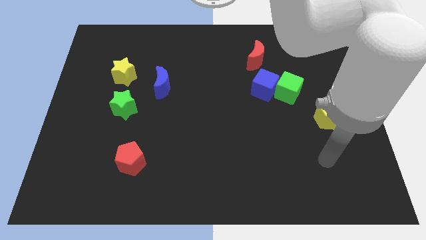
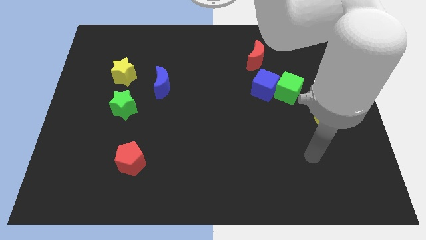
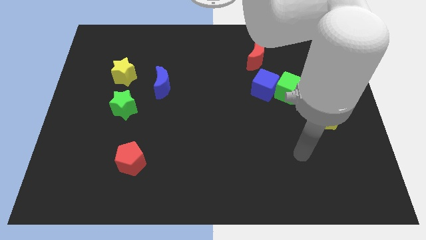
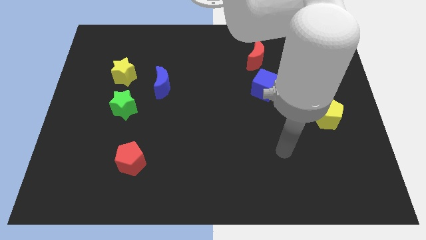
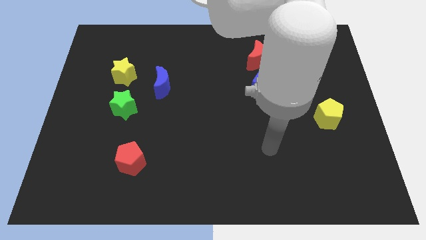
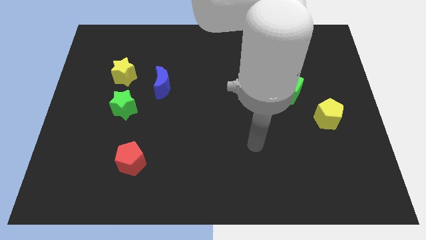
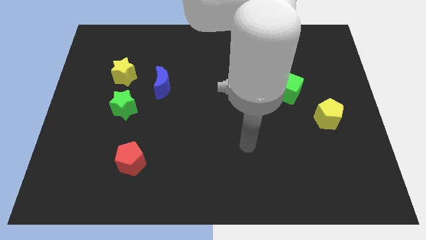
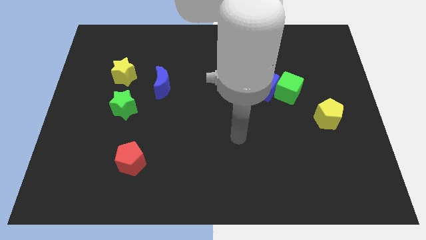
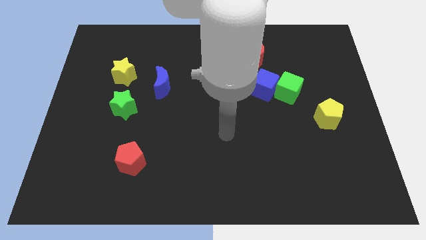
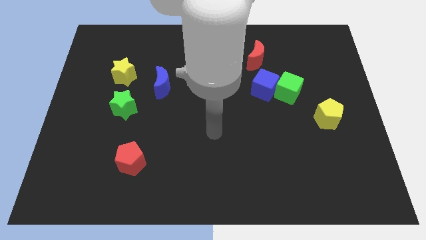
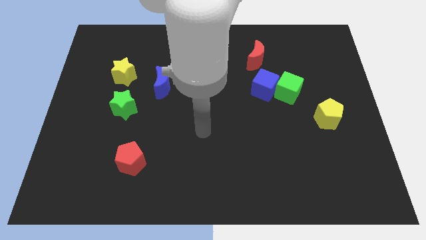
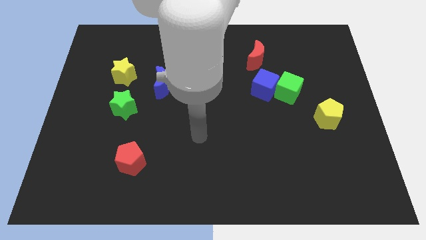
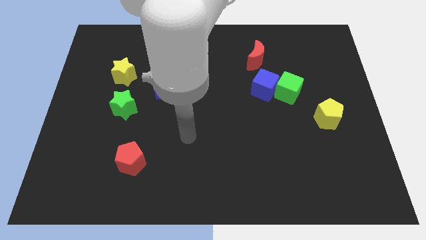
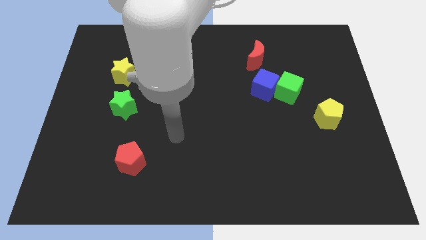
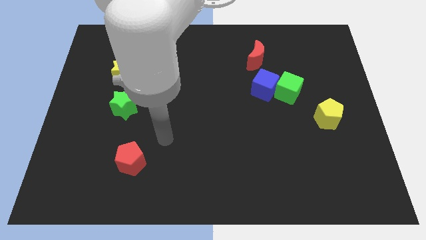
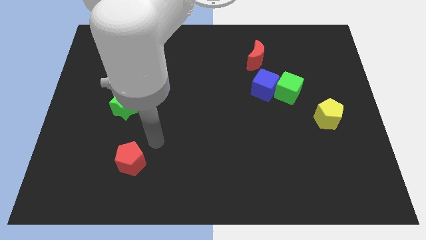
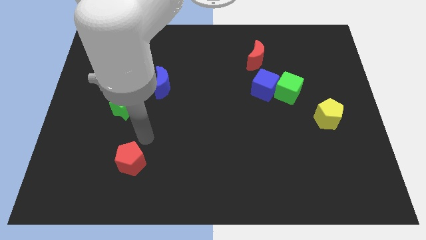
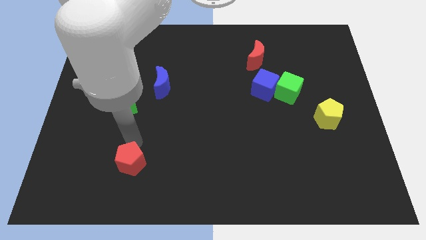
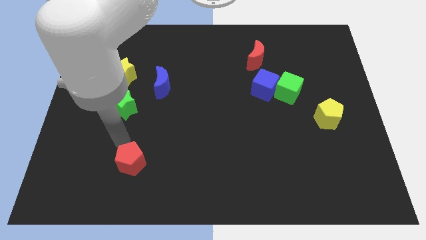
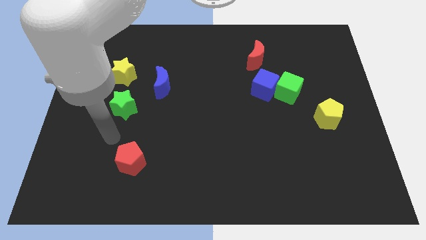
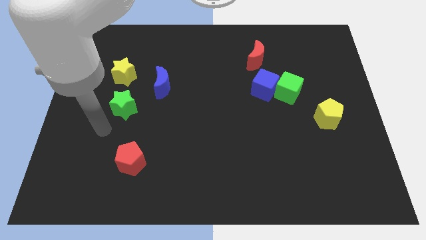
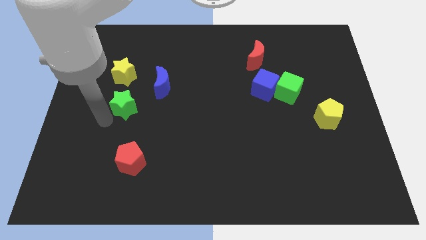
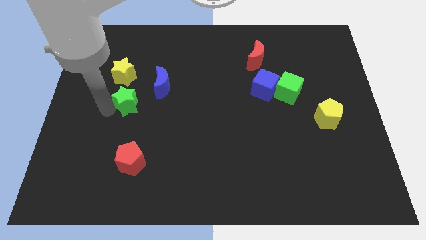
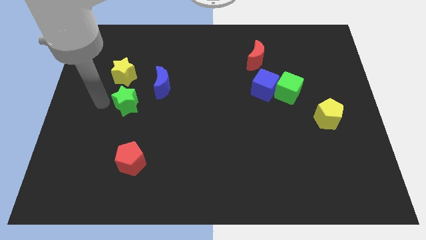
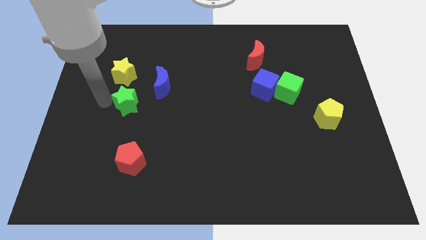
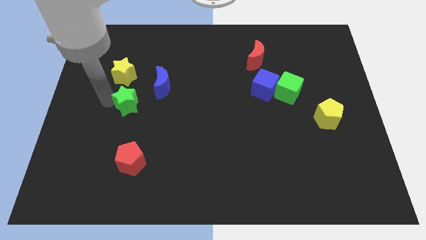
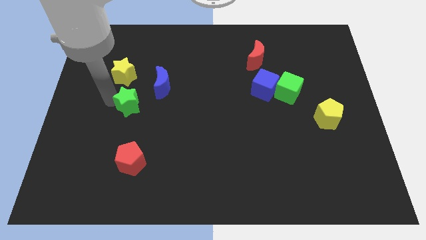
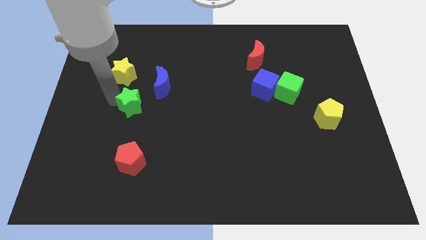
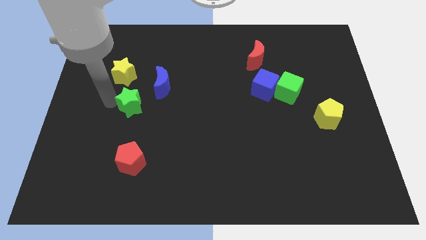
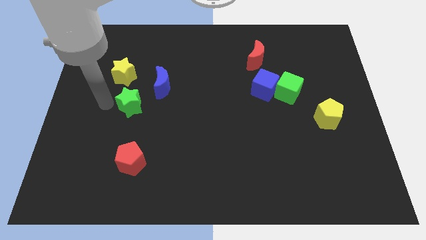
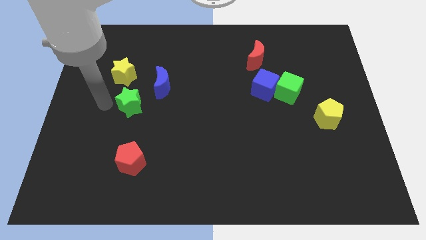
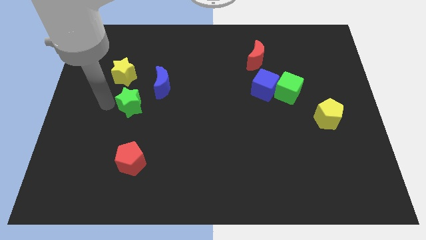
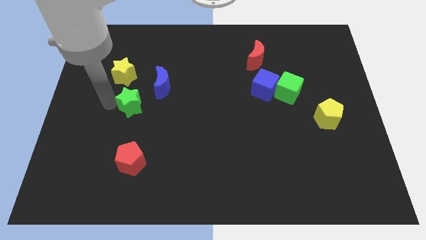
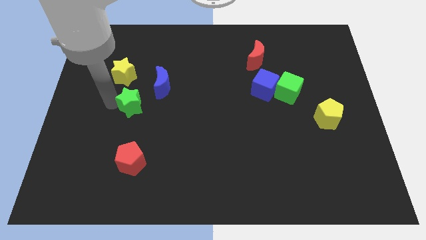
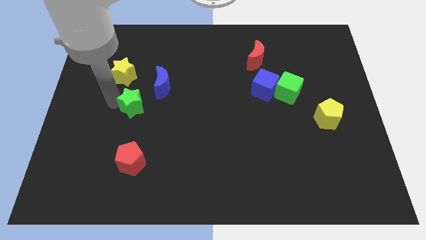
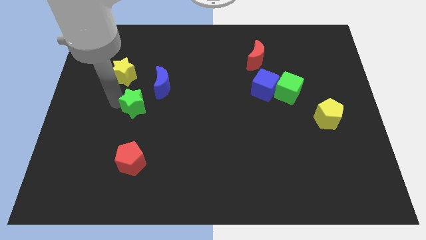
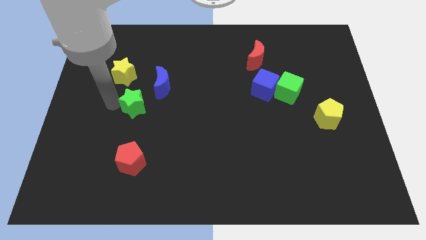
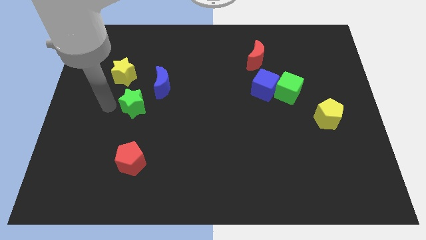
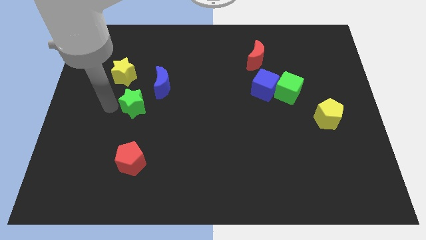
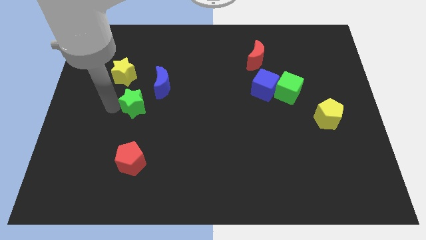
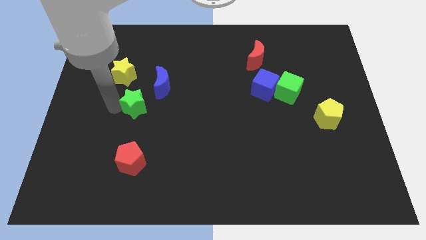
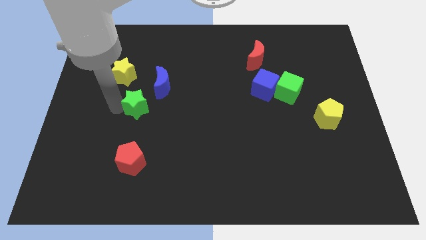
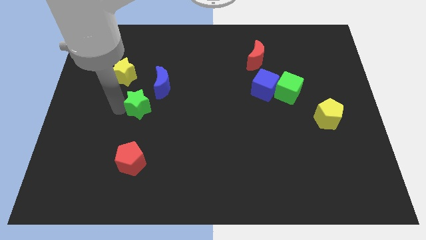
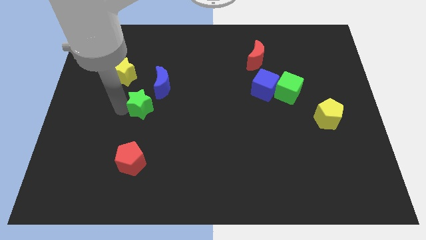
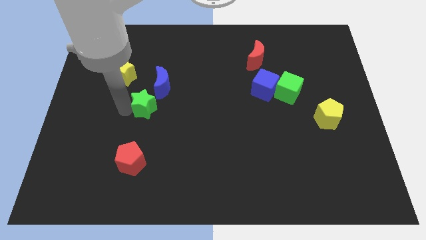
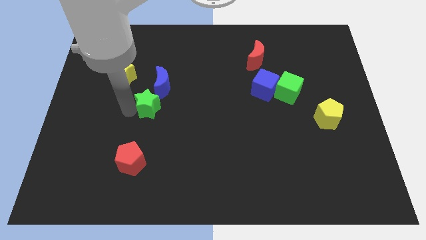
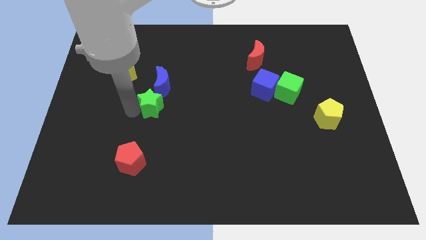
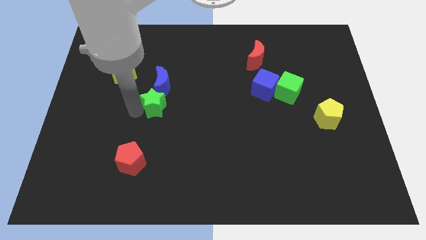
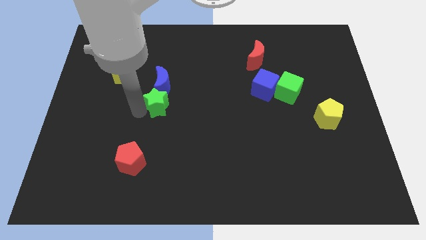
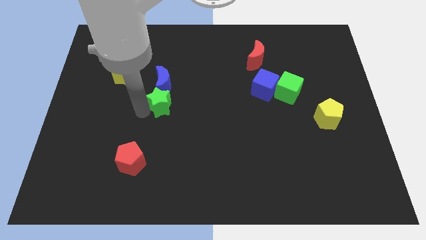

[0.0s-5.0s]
move the green star to the middle of the board

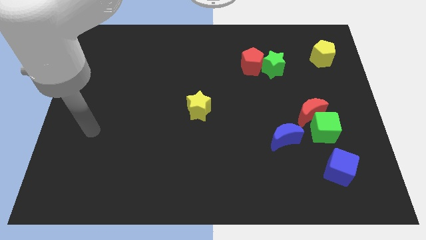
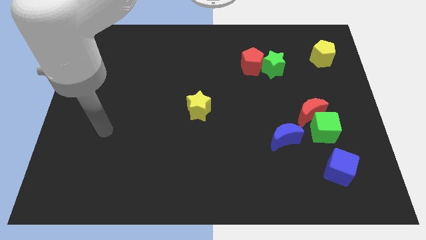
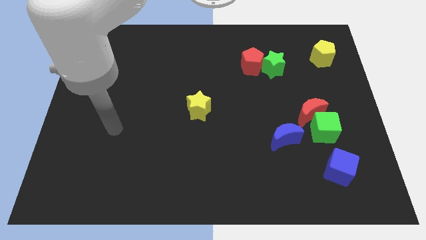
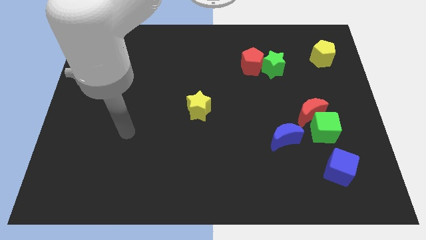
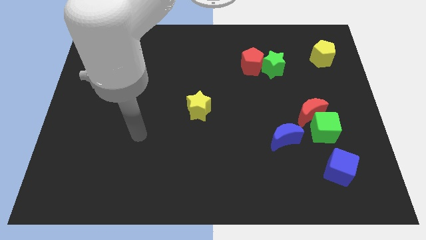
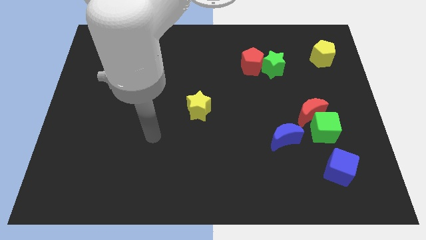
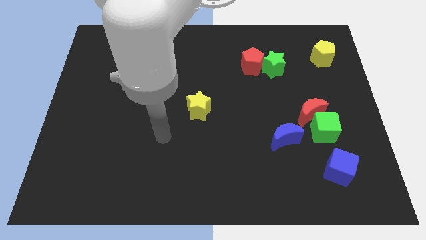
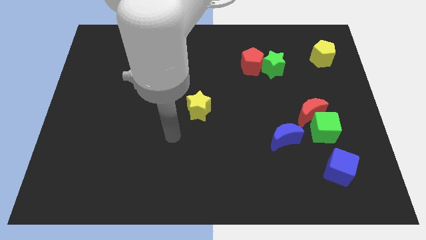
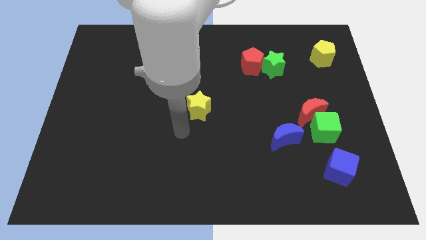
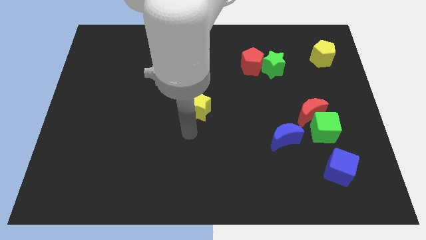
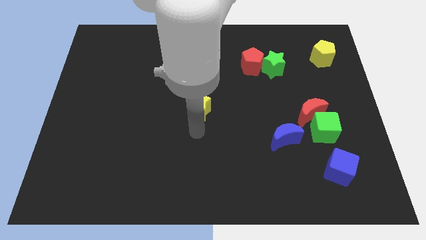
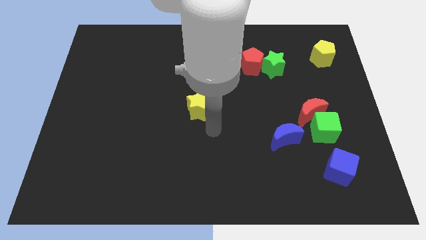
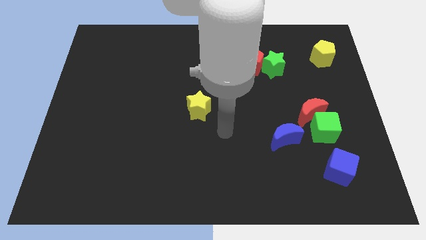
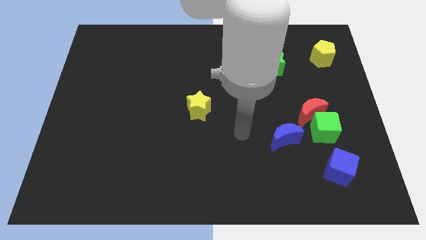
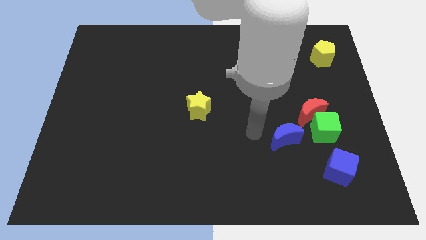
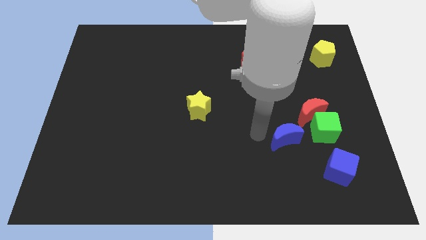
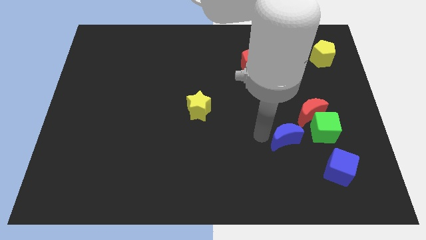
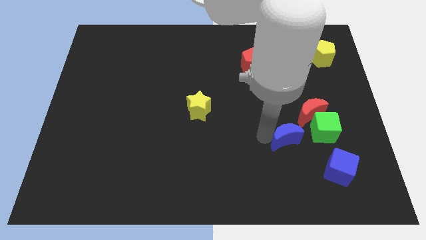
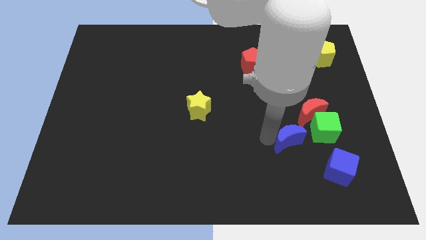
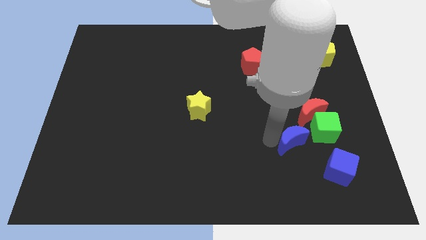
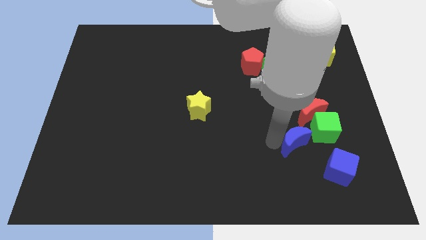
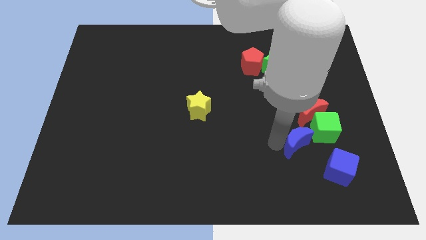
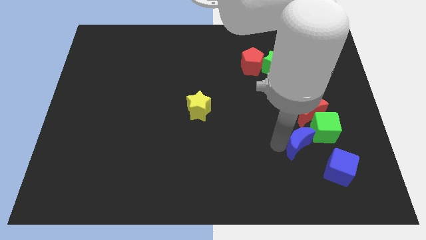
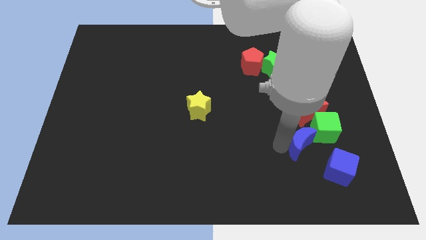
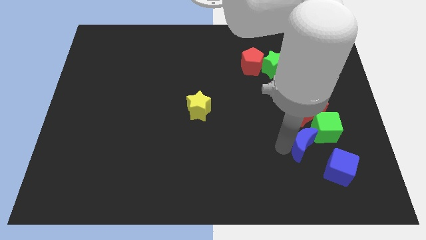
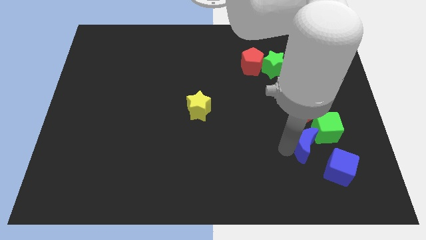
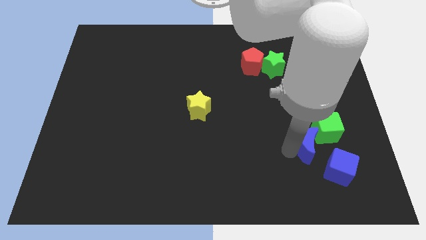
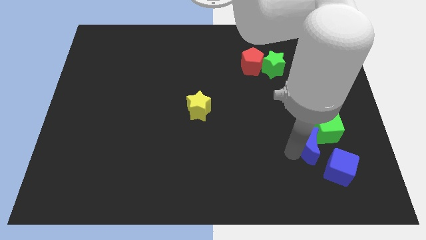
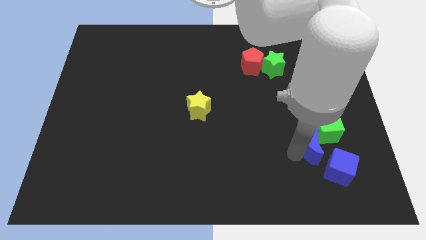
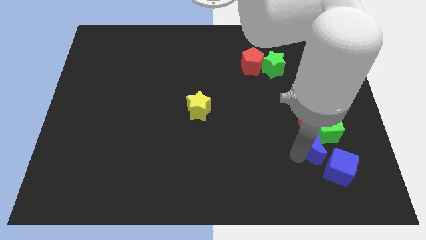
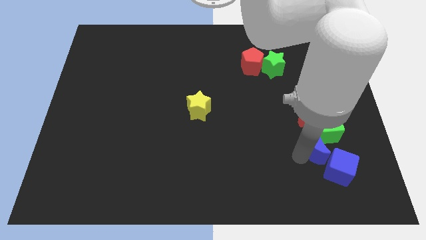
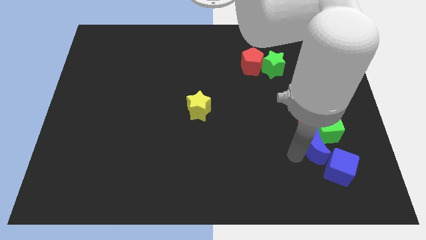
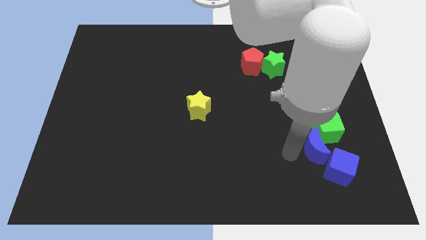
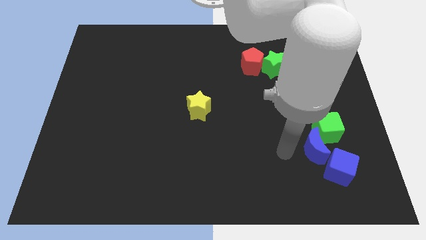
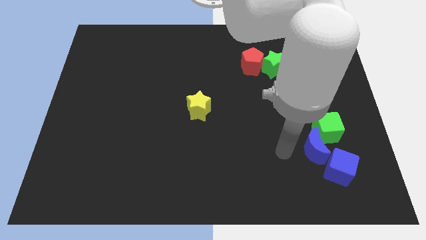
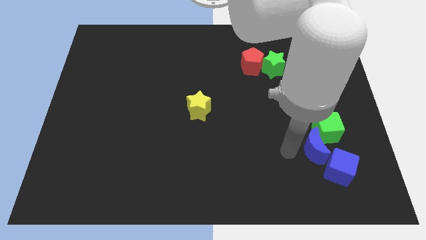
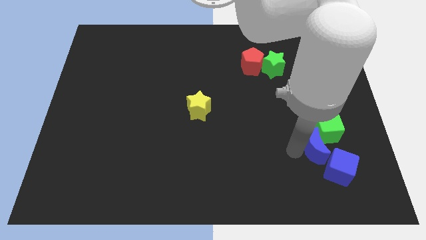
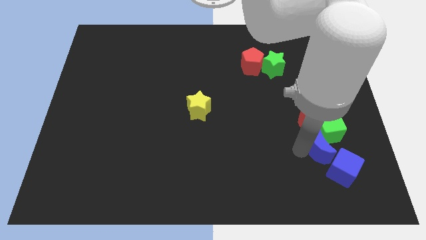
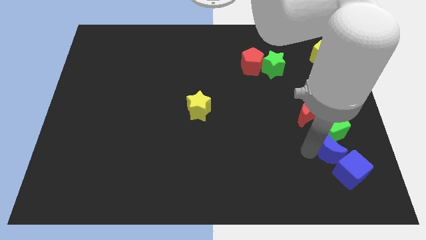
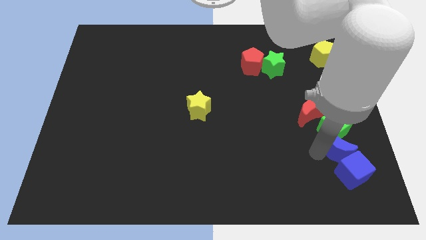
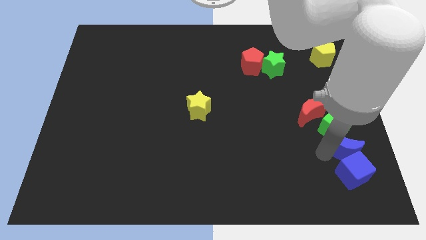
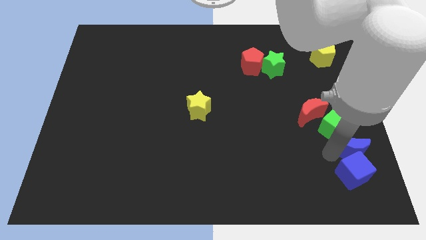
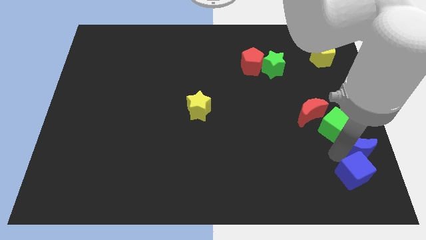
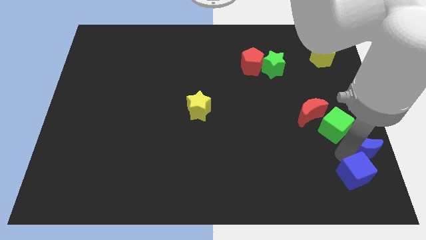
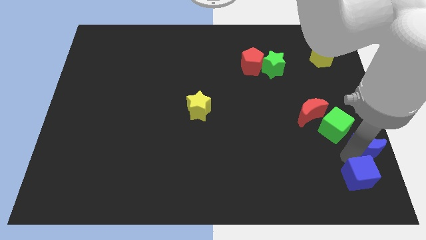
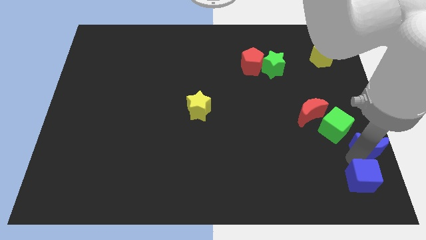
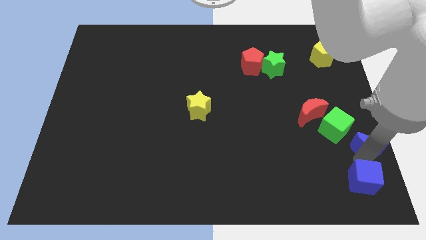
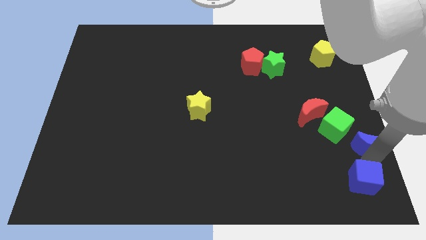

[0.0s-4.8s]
slide the blue moon to the right side of the board
